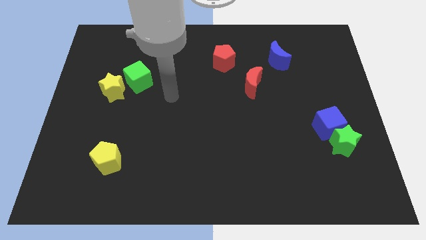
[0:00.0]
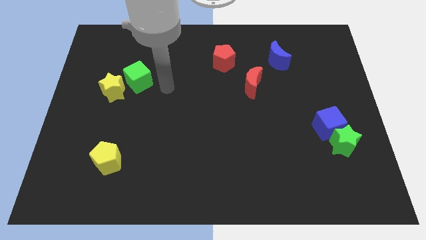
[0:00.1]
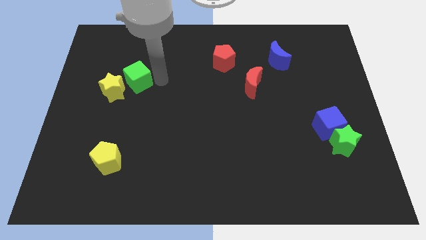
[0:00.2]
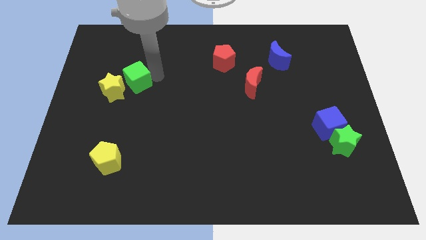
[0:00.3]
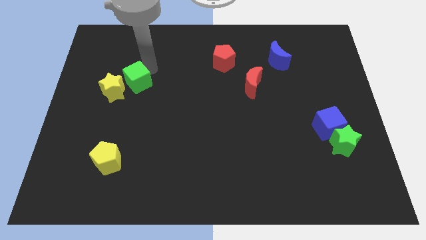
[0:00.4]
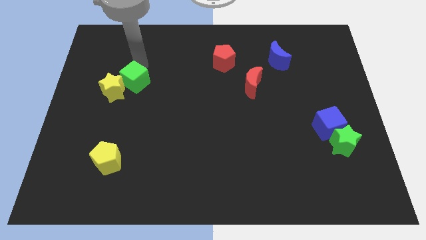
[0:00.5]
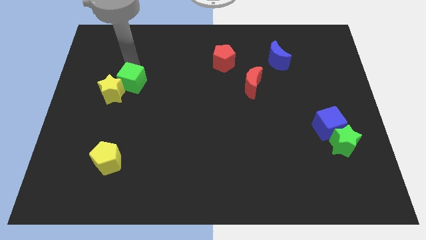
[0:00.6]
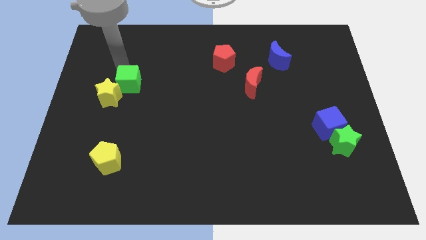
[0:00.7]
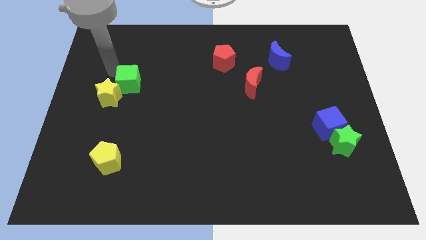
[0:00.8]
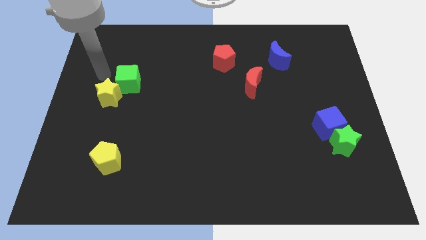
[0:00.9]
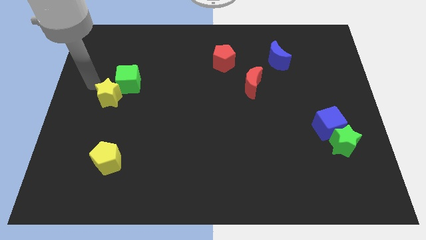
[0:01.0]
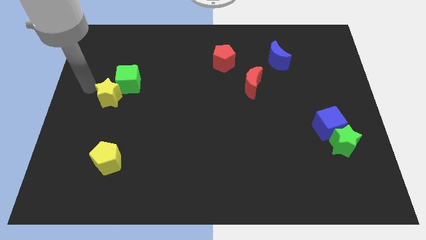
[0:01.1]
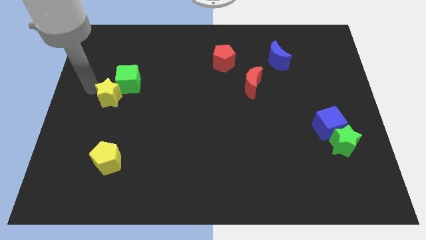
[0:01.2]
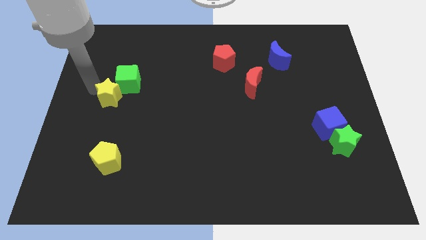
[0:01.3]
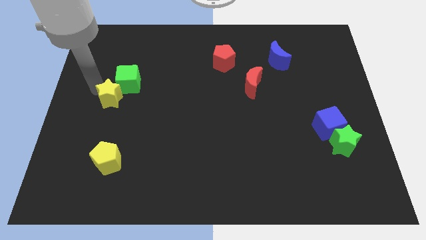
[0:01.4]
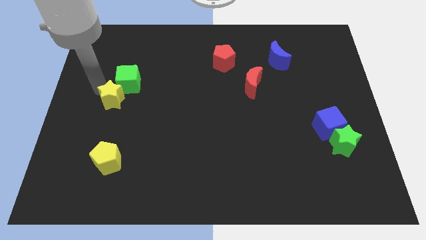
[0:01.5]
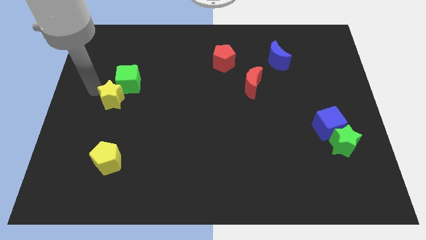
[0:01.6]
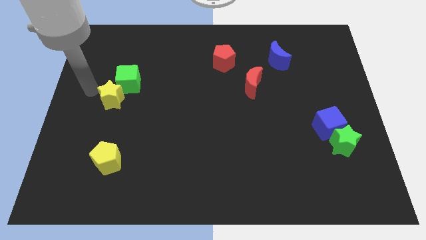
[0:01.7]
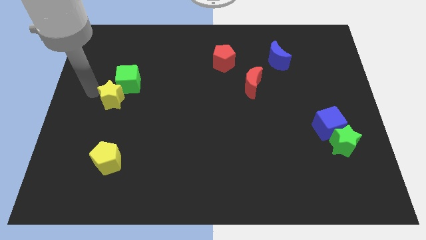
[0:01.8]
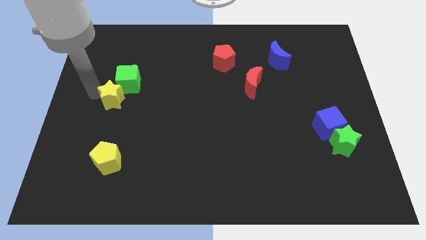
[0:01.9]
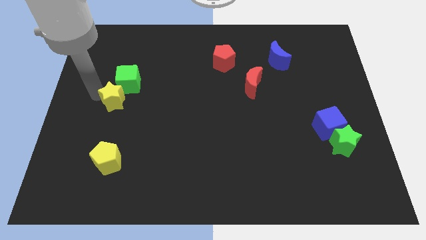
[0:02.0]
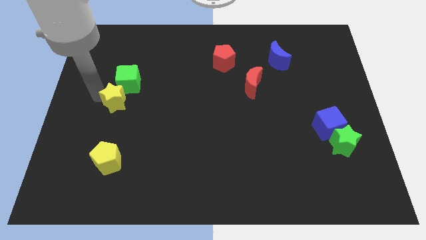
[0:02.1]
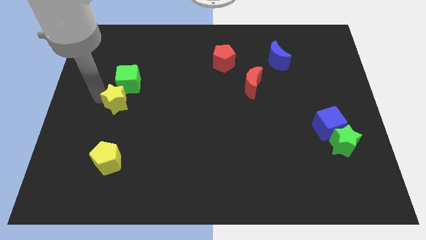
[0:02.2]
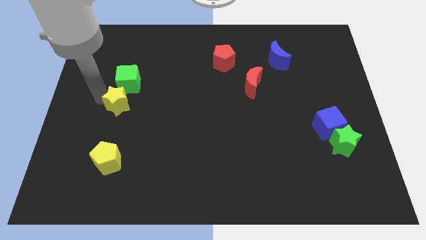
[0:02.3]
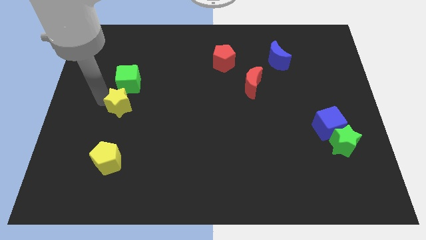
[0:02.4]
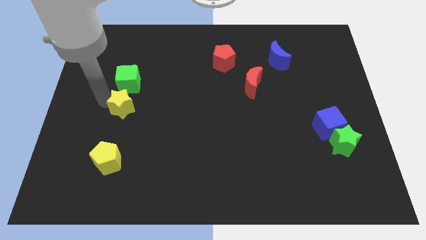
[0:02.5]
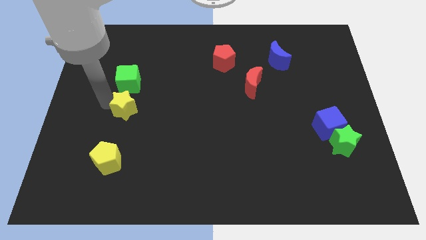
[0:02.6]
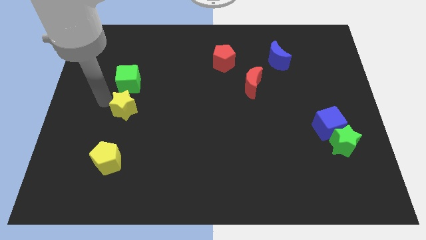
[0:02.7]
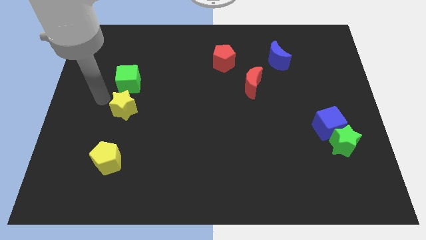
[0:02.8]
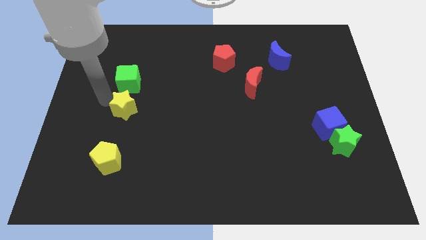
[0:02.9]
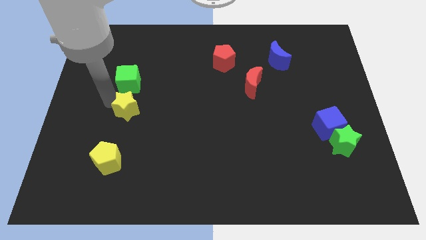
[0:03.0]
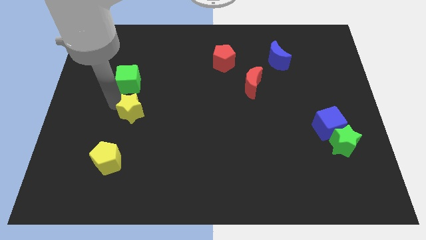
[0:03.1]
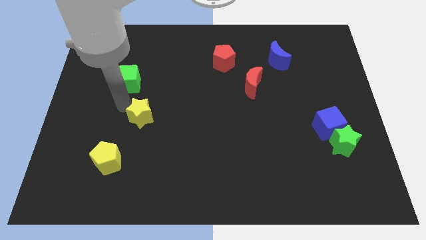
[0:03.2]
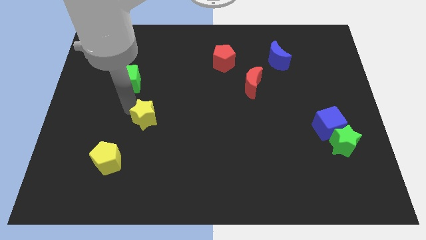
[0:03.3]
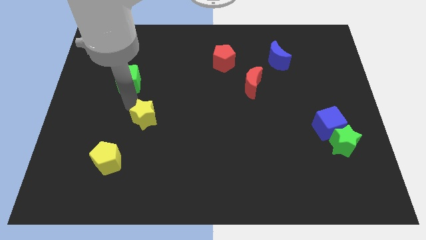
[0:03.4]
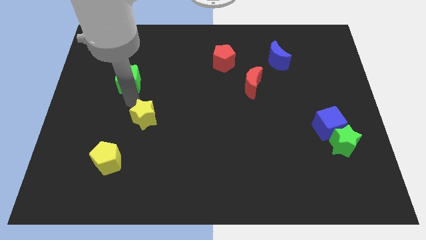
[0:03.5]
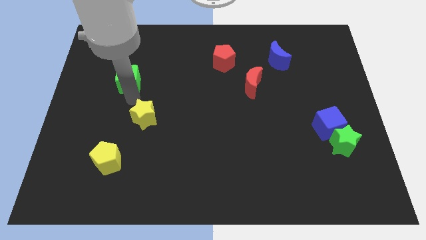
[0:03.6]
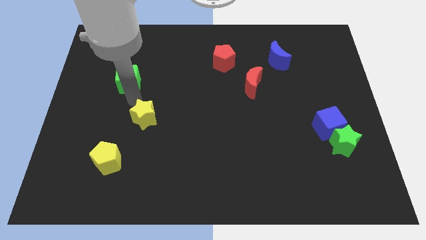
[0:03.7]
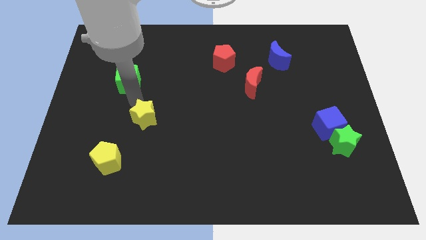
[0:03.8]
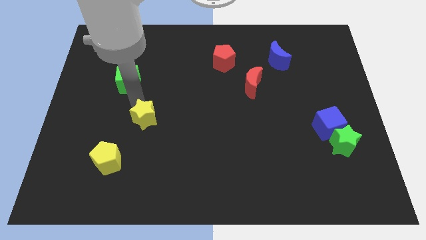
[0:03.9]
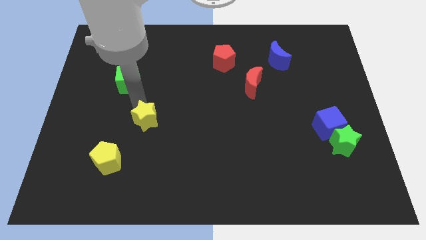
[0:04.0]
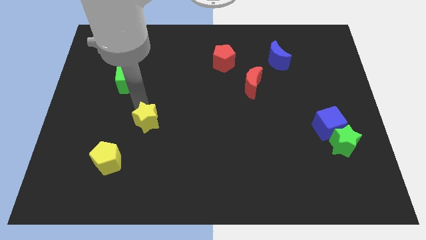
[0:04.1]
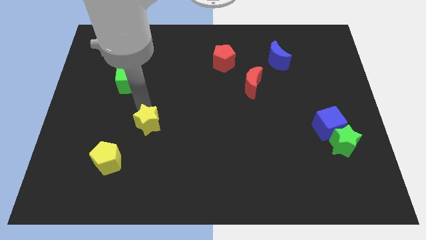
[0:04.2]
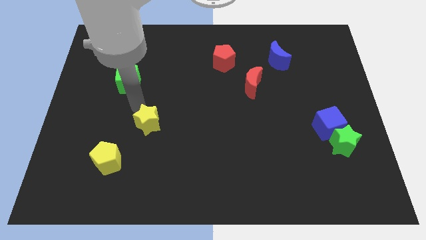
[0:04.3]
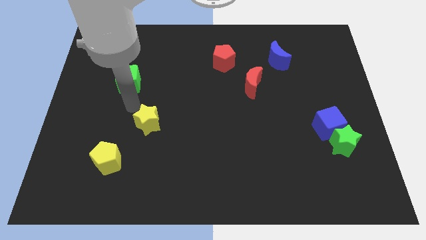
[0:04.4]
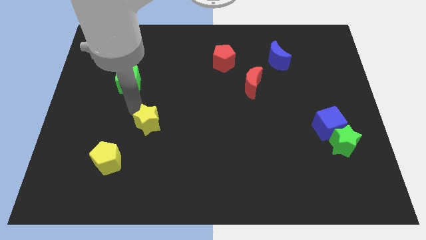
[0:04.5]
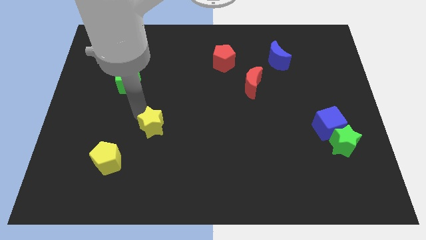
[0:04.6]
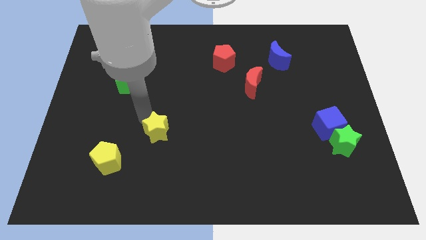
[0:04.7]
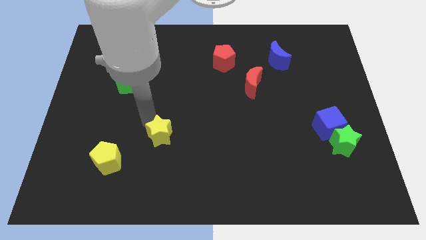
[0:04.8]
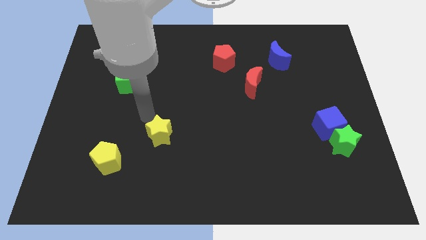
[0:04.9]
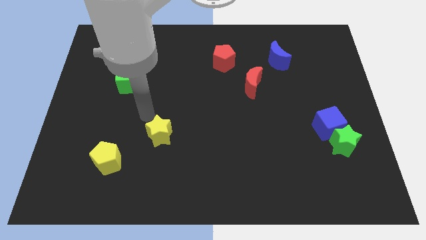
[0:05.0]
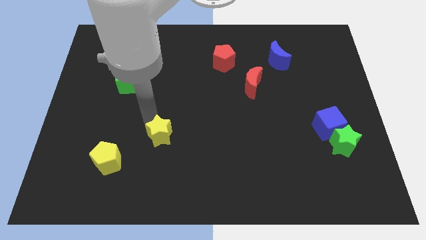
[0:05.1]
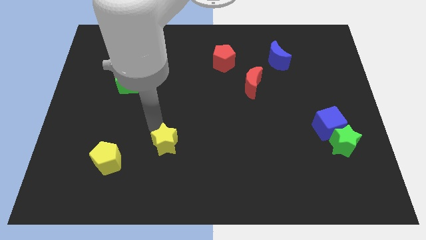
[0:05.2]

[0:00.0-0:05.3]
move the yellow star down and then right

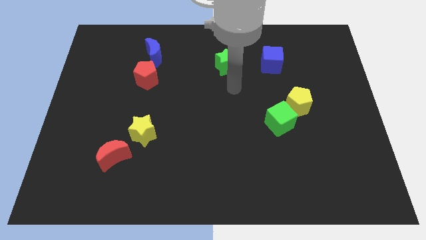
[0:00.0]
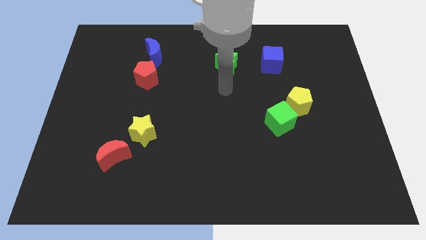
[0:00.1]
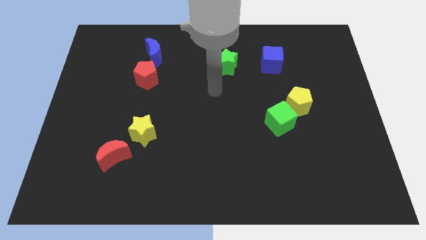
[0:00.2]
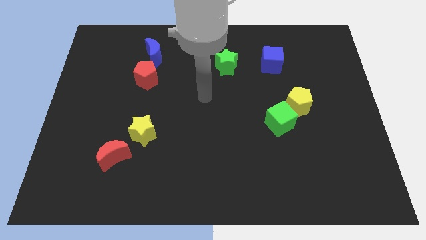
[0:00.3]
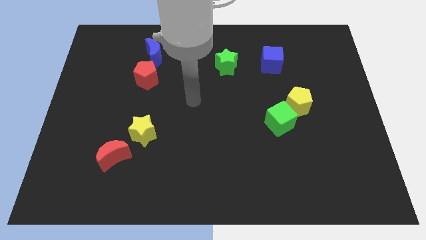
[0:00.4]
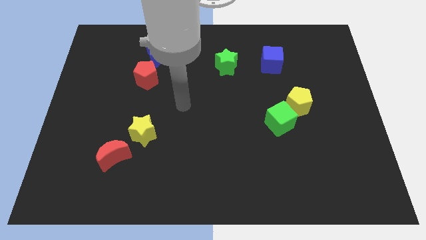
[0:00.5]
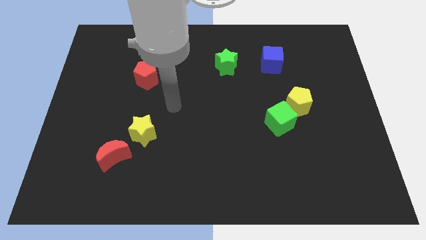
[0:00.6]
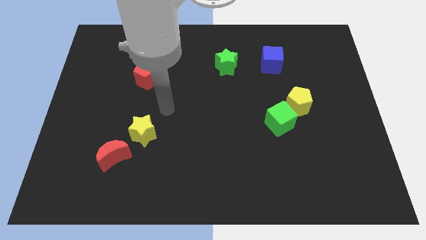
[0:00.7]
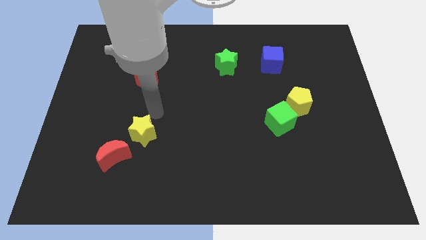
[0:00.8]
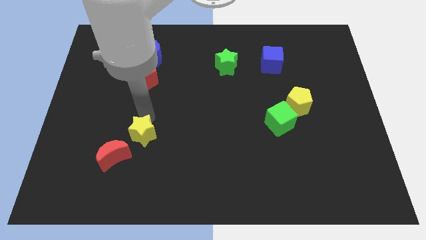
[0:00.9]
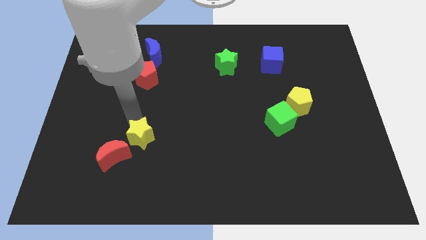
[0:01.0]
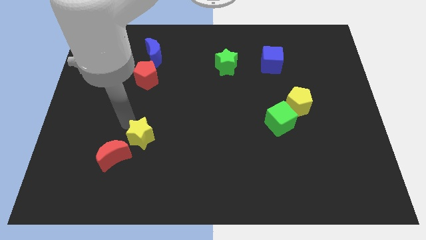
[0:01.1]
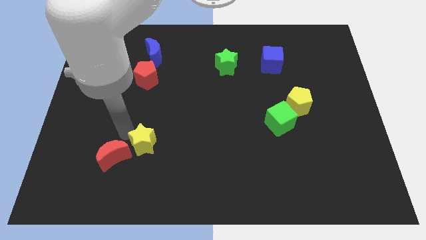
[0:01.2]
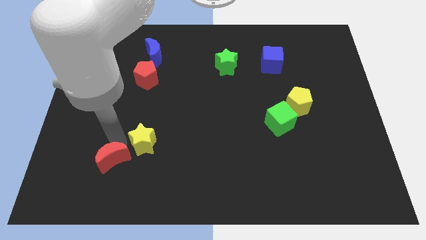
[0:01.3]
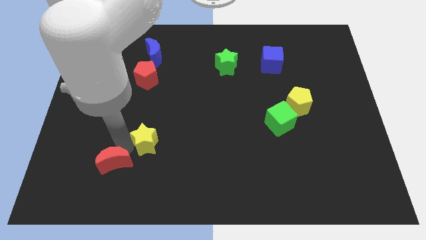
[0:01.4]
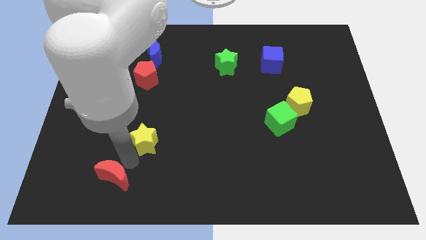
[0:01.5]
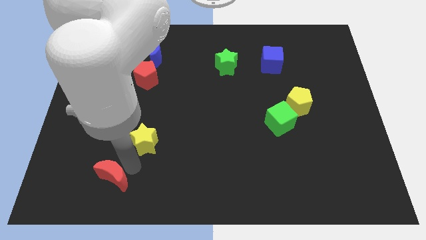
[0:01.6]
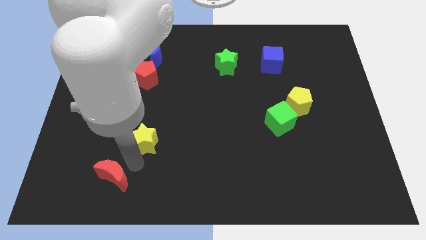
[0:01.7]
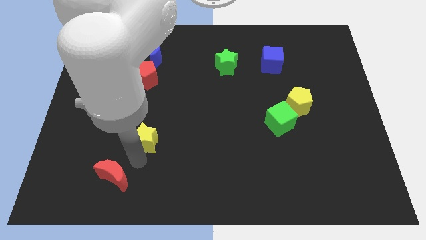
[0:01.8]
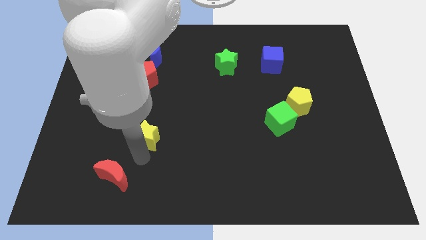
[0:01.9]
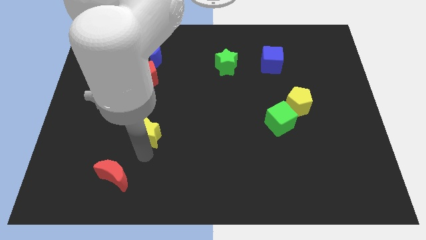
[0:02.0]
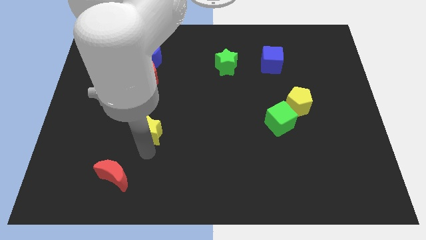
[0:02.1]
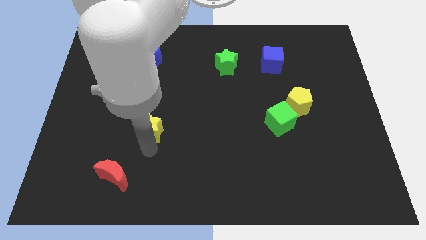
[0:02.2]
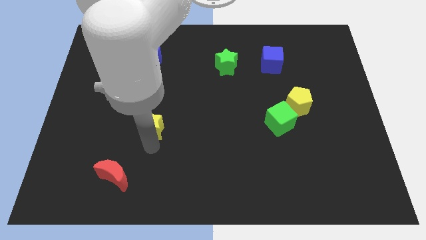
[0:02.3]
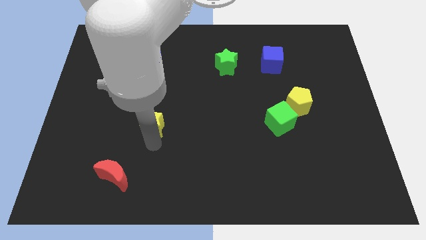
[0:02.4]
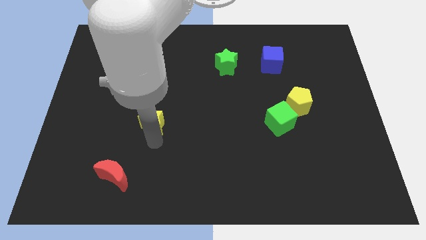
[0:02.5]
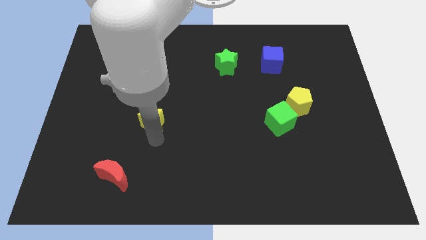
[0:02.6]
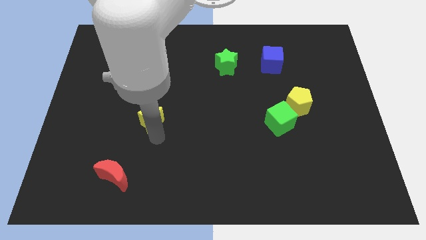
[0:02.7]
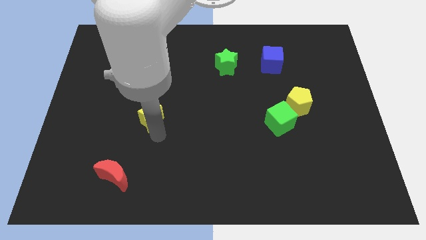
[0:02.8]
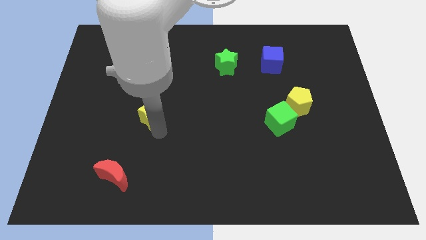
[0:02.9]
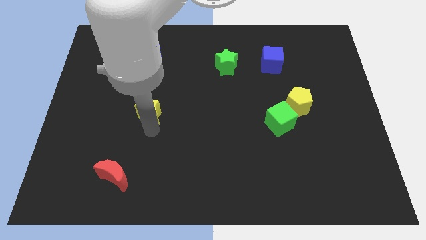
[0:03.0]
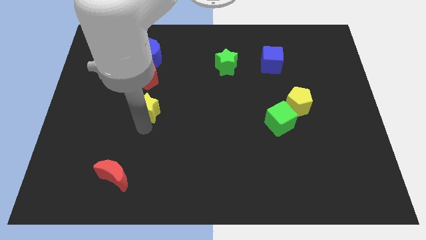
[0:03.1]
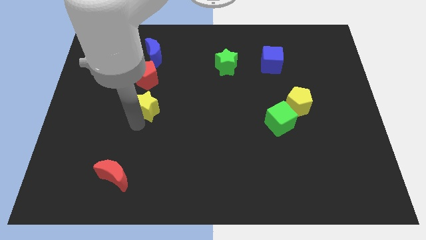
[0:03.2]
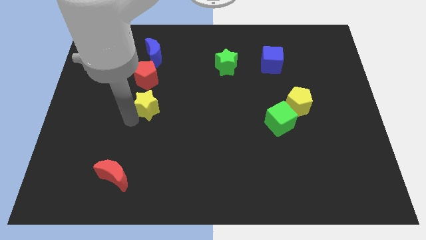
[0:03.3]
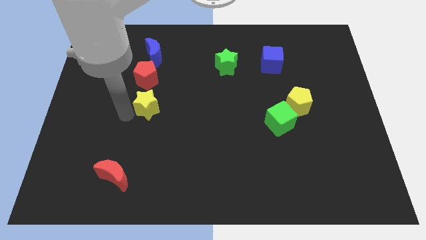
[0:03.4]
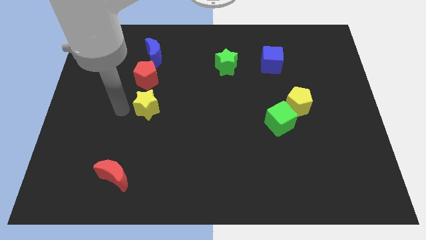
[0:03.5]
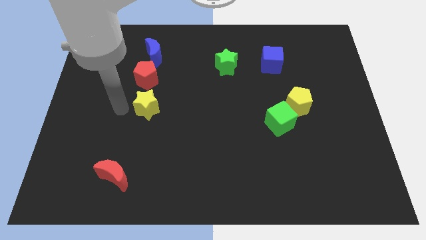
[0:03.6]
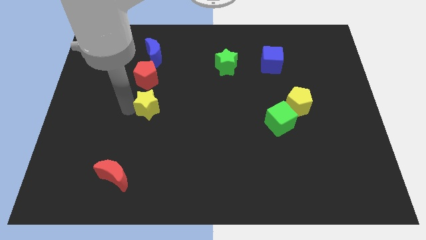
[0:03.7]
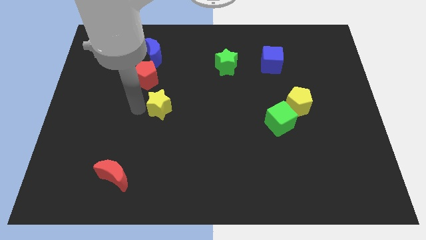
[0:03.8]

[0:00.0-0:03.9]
push the yellow star upwards and then right a little bit
